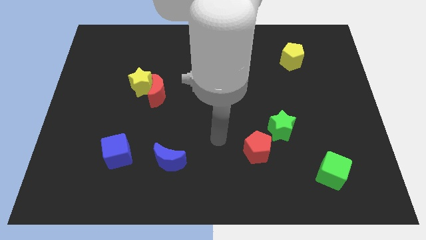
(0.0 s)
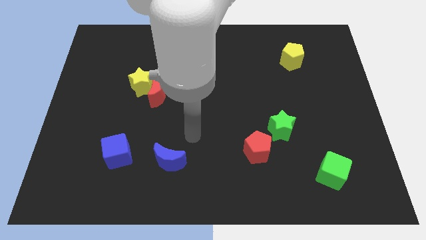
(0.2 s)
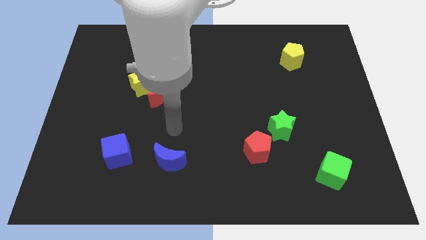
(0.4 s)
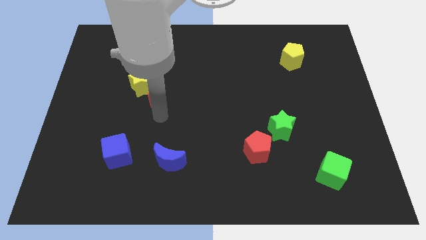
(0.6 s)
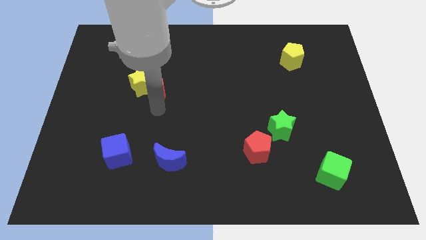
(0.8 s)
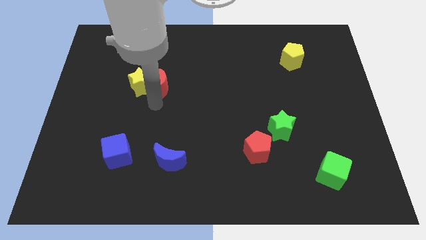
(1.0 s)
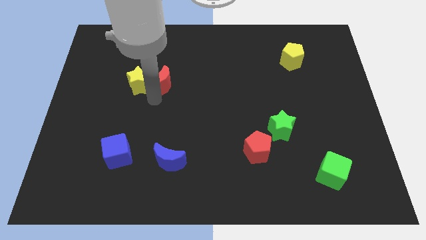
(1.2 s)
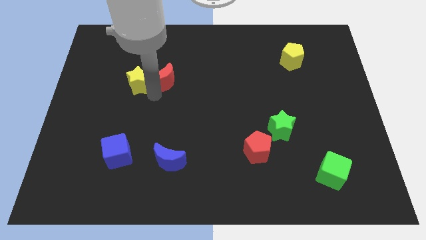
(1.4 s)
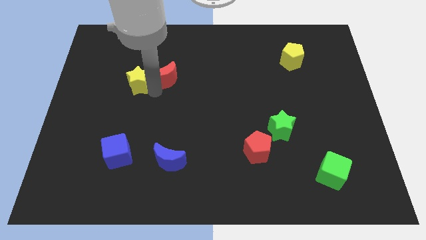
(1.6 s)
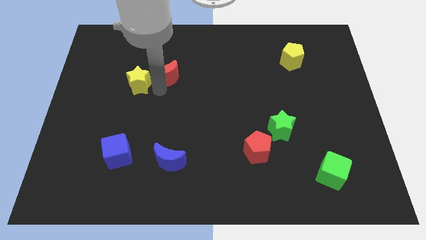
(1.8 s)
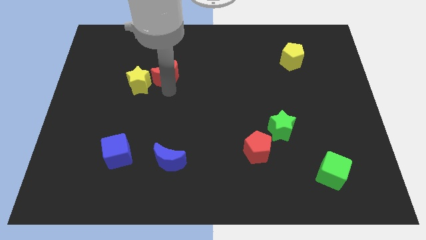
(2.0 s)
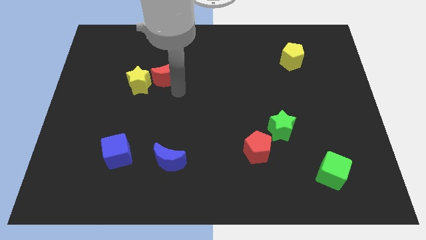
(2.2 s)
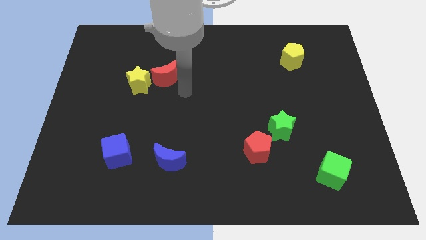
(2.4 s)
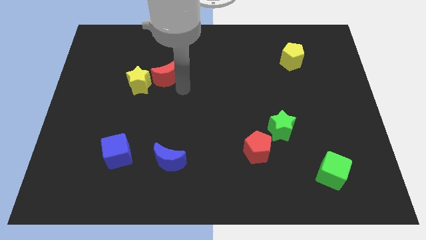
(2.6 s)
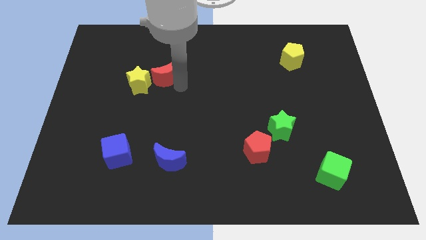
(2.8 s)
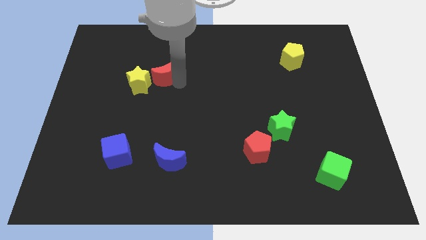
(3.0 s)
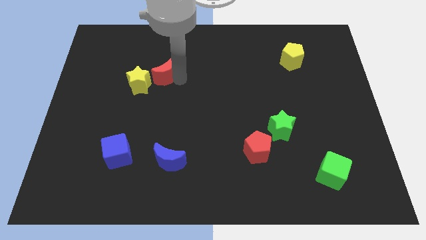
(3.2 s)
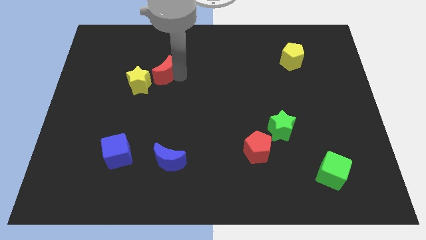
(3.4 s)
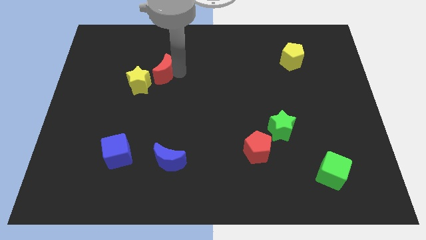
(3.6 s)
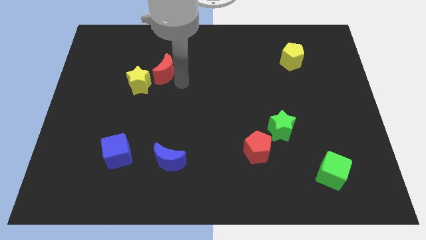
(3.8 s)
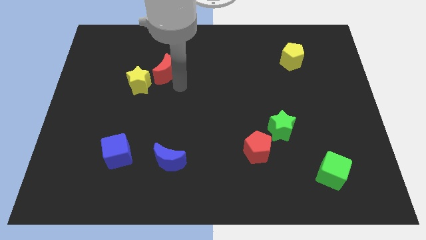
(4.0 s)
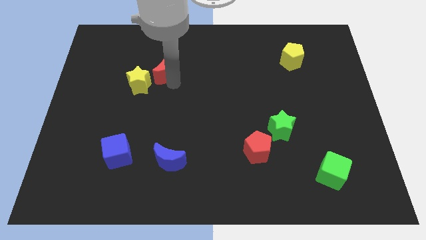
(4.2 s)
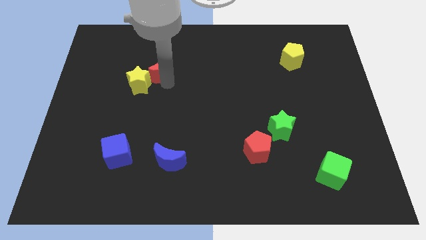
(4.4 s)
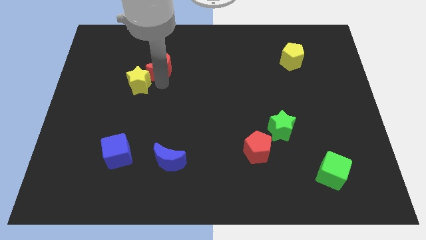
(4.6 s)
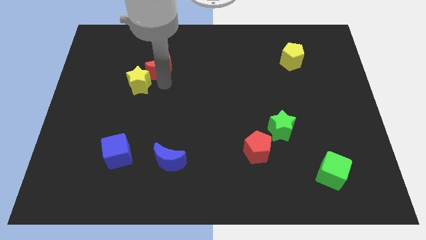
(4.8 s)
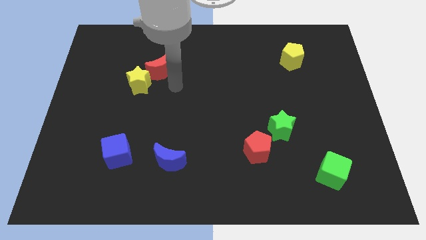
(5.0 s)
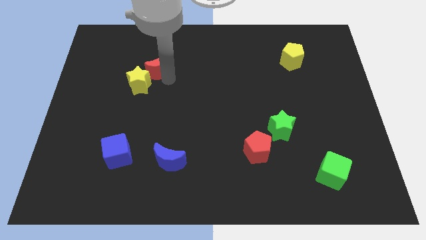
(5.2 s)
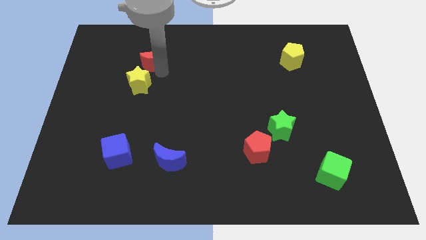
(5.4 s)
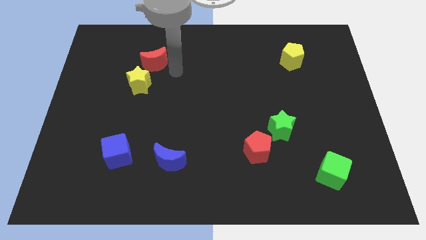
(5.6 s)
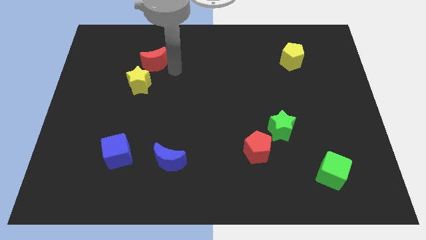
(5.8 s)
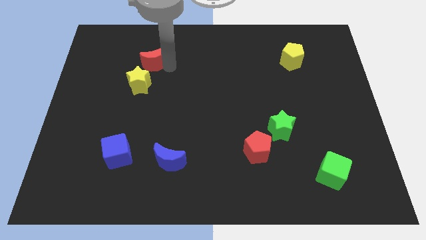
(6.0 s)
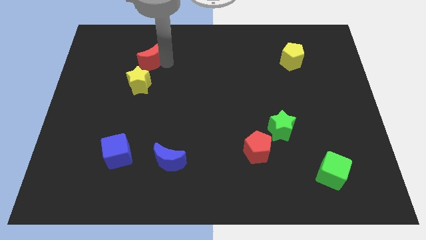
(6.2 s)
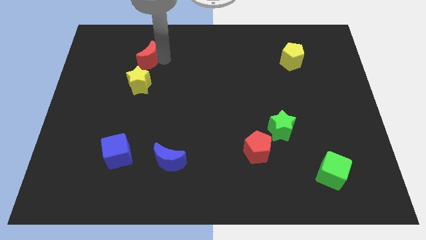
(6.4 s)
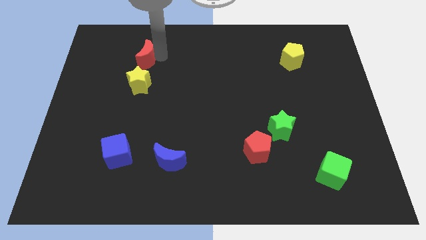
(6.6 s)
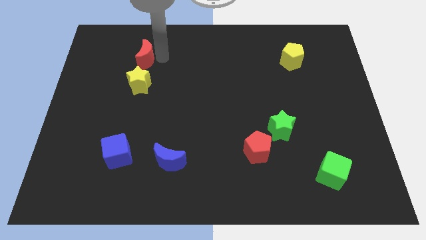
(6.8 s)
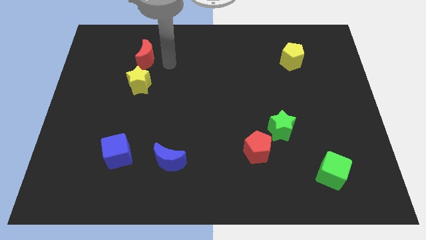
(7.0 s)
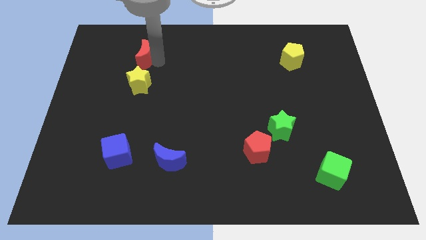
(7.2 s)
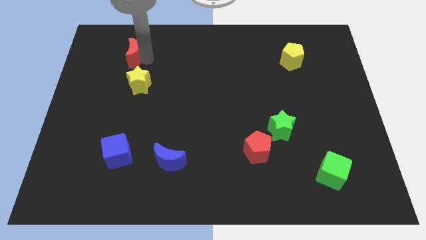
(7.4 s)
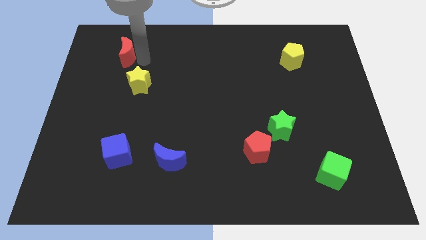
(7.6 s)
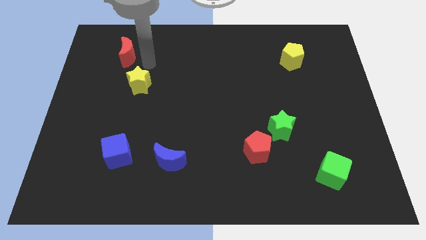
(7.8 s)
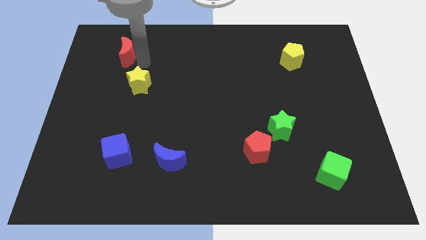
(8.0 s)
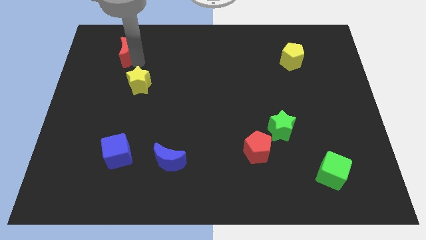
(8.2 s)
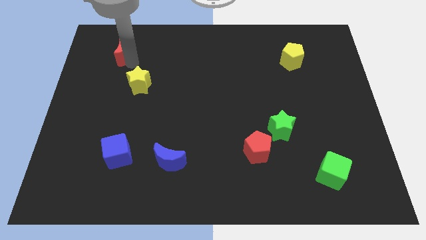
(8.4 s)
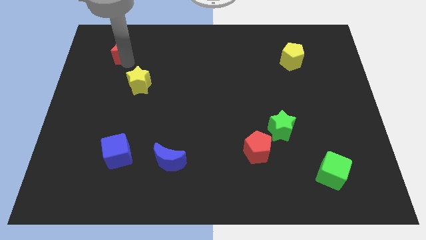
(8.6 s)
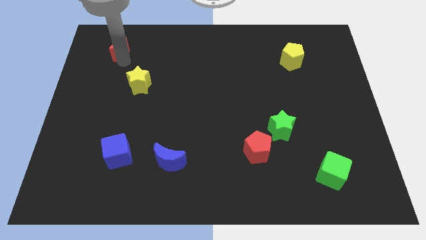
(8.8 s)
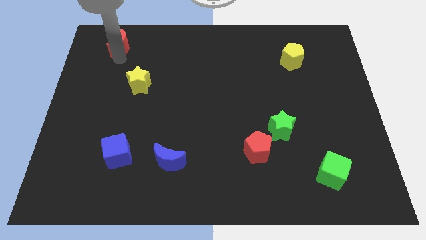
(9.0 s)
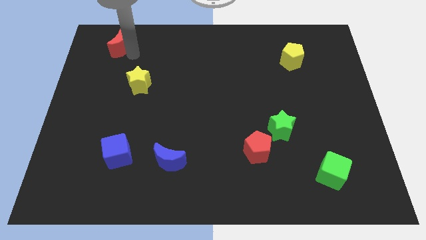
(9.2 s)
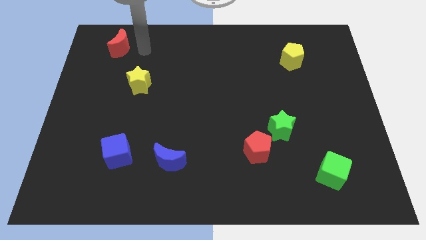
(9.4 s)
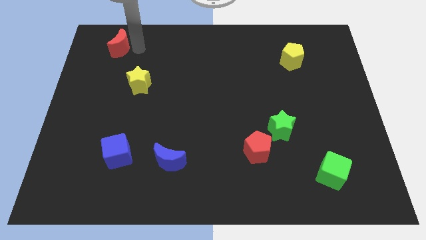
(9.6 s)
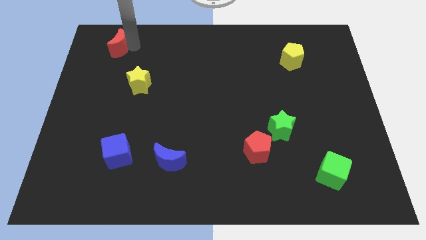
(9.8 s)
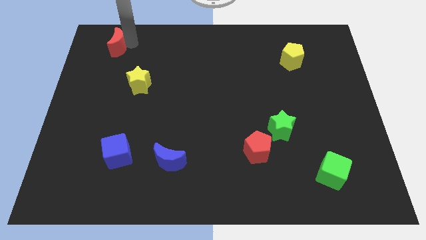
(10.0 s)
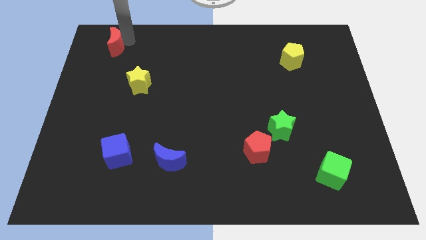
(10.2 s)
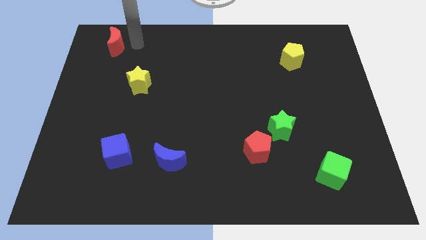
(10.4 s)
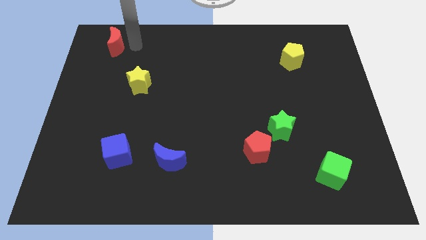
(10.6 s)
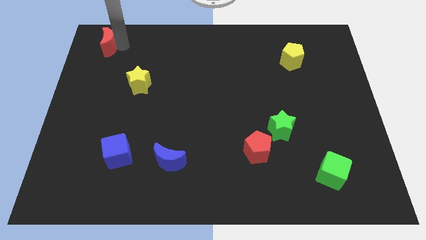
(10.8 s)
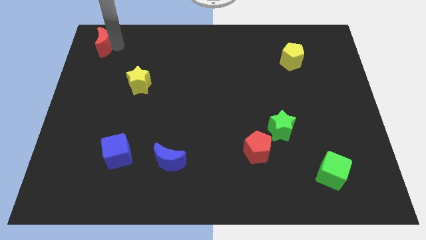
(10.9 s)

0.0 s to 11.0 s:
slide the red moon to the top left of the board

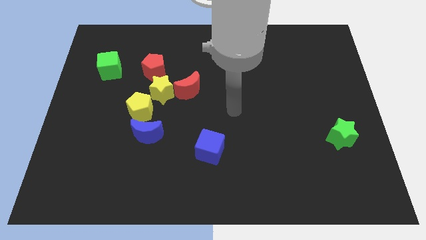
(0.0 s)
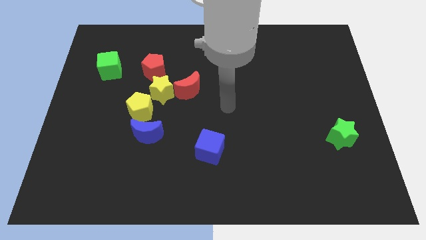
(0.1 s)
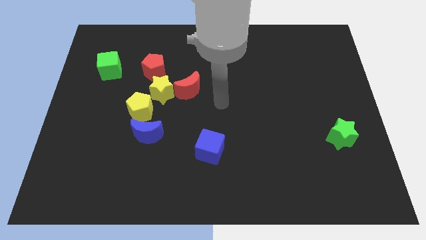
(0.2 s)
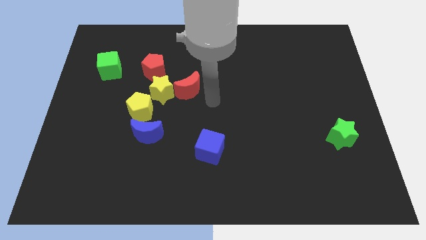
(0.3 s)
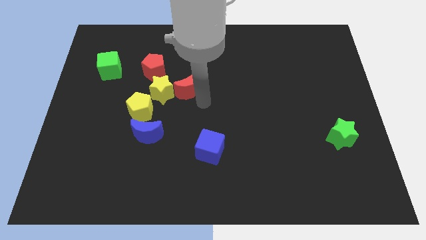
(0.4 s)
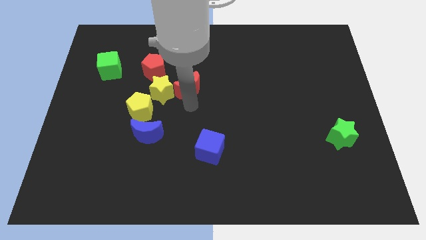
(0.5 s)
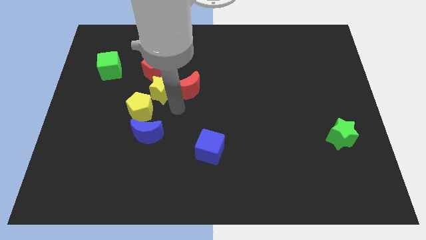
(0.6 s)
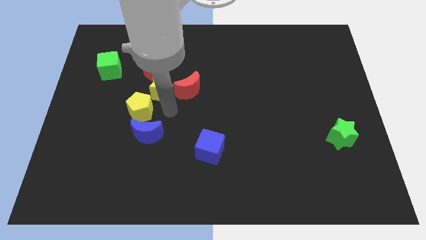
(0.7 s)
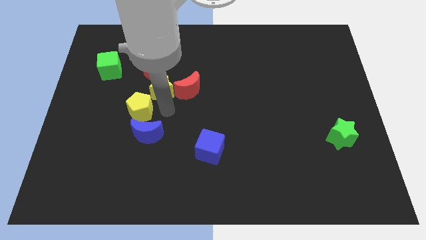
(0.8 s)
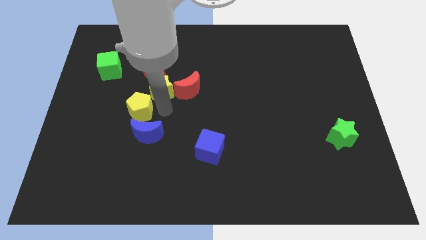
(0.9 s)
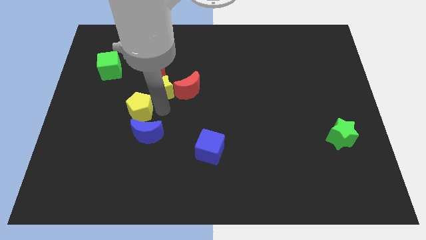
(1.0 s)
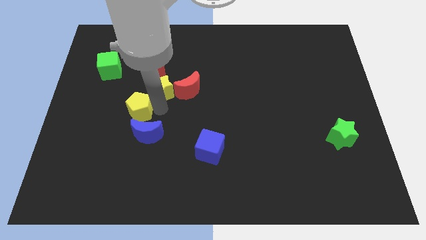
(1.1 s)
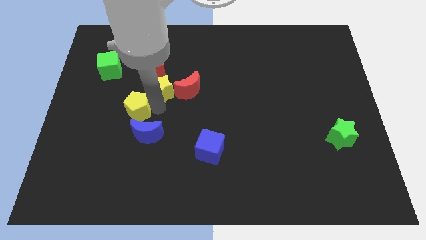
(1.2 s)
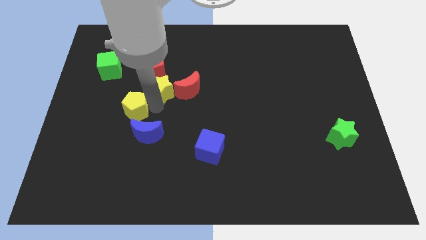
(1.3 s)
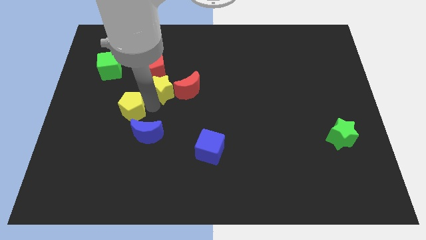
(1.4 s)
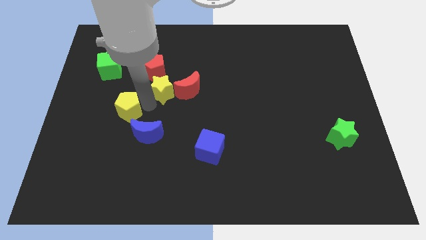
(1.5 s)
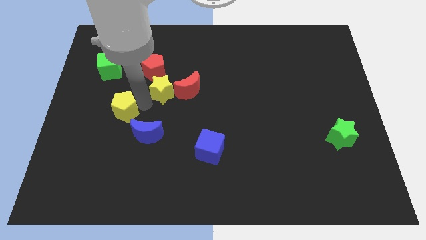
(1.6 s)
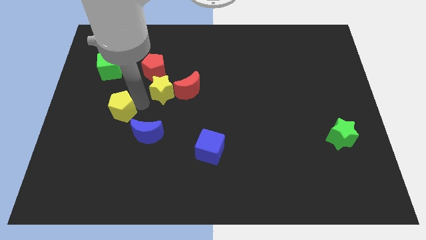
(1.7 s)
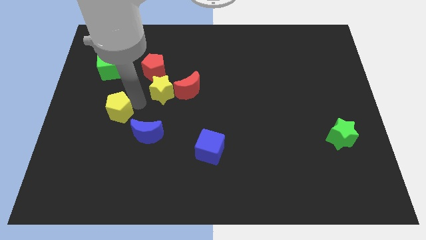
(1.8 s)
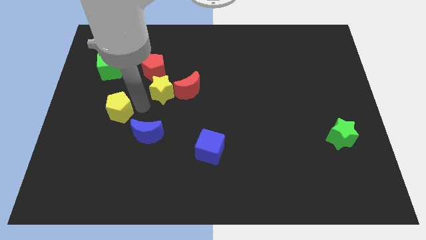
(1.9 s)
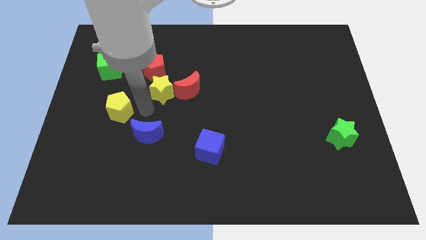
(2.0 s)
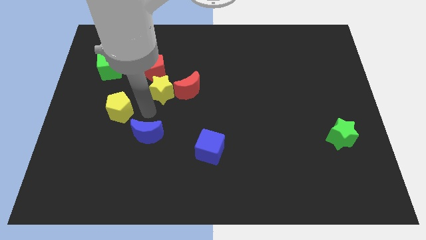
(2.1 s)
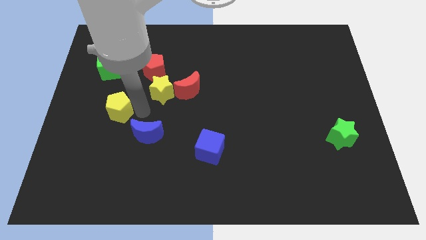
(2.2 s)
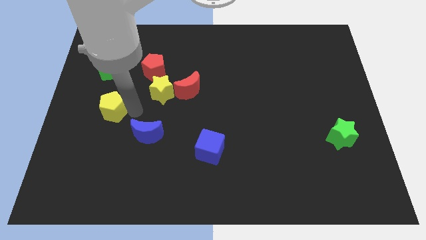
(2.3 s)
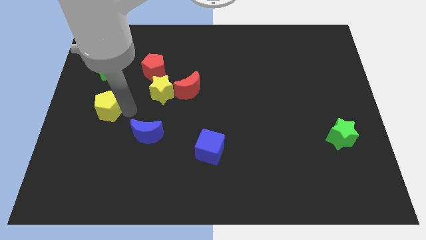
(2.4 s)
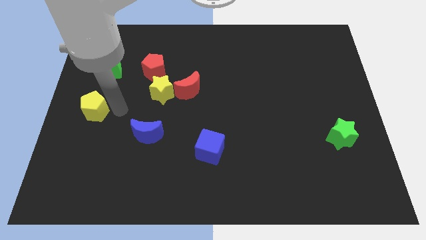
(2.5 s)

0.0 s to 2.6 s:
slide the yellow pentagon to the center left
